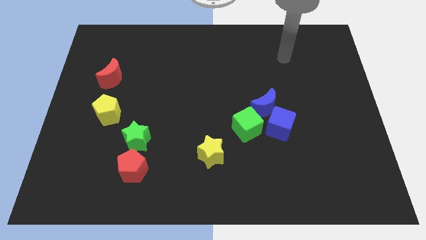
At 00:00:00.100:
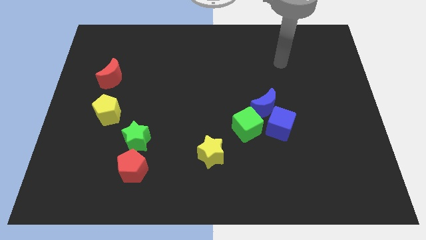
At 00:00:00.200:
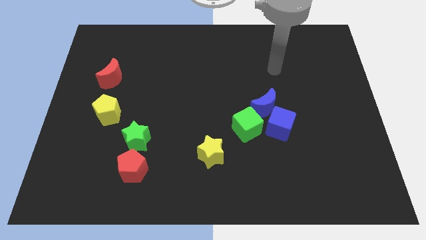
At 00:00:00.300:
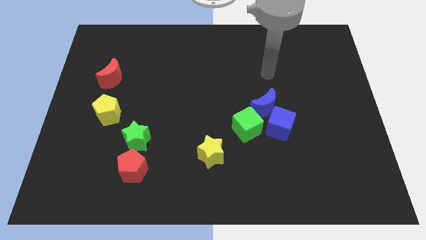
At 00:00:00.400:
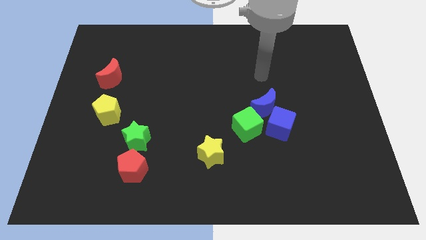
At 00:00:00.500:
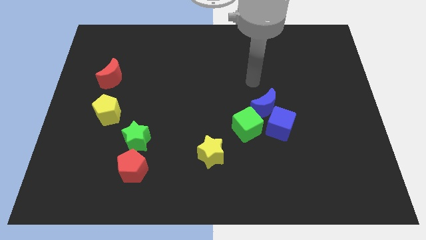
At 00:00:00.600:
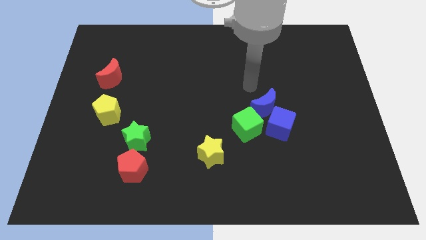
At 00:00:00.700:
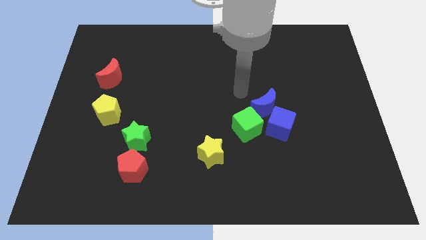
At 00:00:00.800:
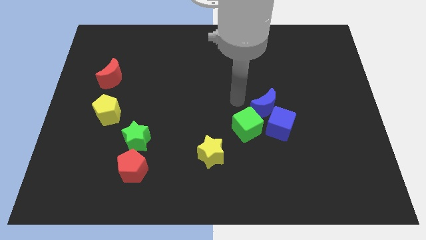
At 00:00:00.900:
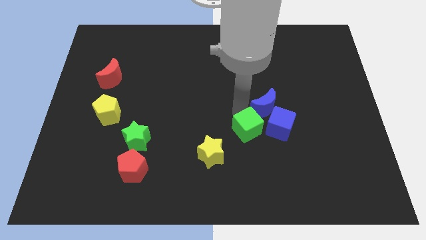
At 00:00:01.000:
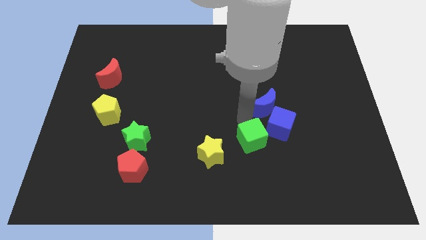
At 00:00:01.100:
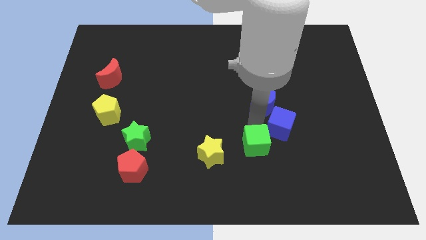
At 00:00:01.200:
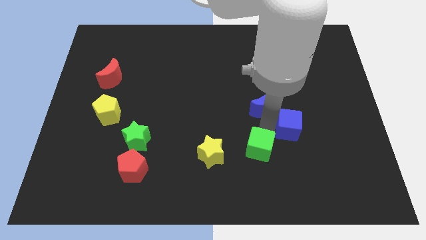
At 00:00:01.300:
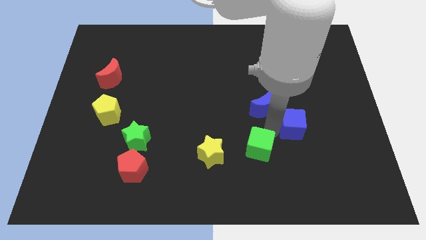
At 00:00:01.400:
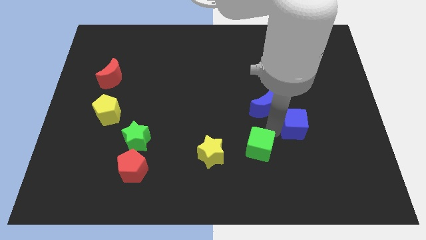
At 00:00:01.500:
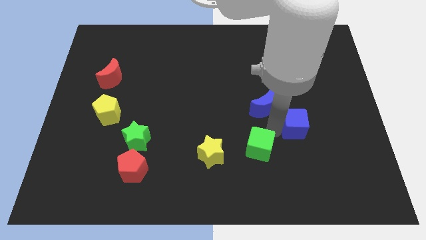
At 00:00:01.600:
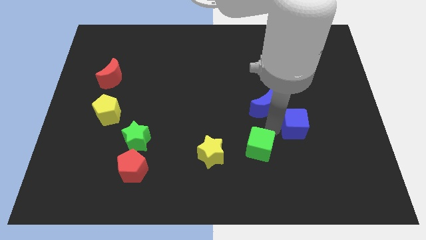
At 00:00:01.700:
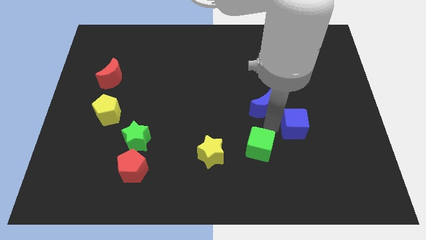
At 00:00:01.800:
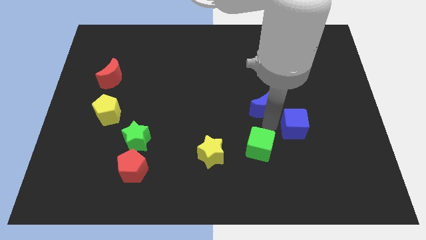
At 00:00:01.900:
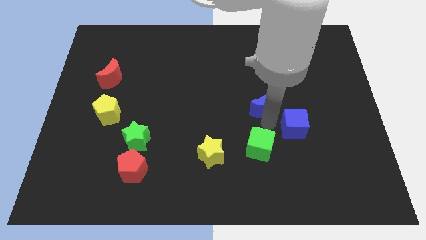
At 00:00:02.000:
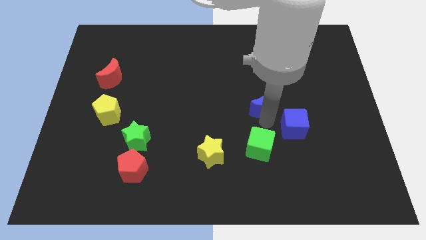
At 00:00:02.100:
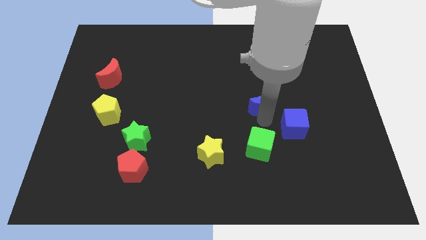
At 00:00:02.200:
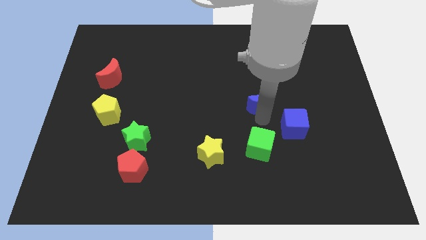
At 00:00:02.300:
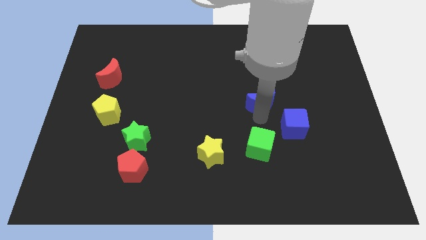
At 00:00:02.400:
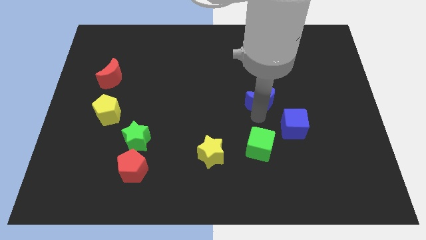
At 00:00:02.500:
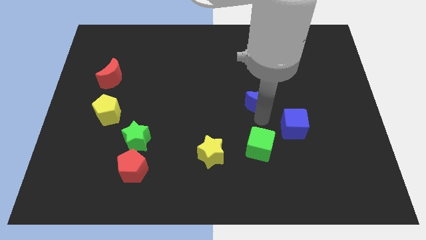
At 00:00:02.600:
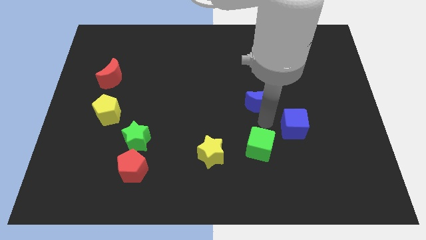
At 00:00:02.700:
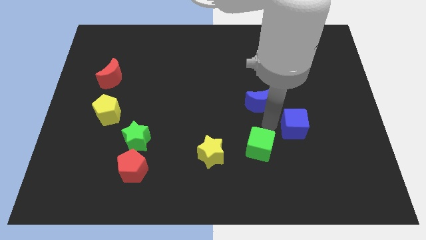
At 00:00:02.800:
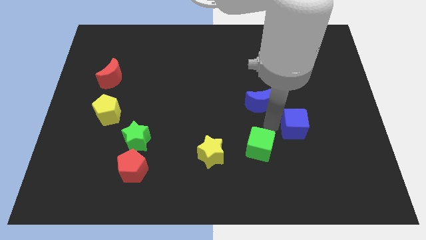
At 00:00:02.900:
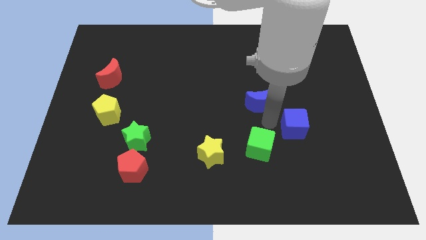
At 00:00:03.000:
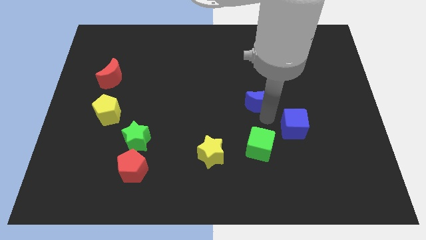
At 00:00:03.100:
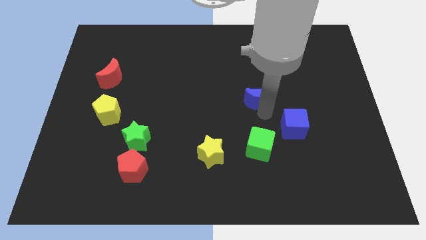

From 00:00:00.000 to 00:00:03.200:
separate the blue moon from the blue cube and green cube

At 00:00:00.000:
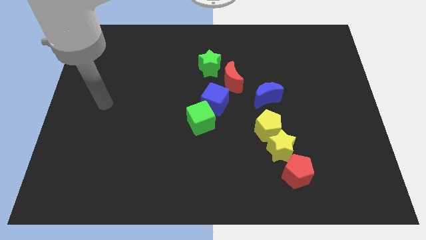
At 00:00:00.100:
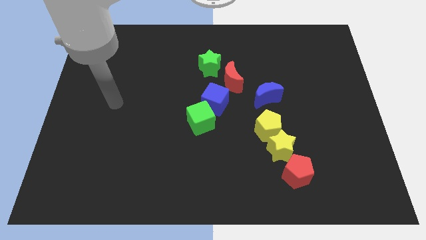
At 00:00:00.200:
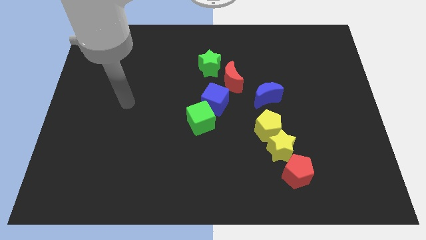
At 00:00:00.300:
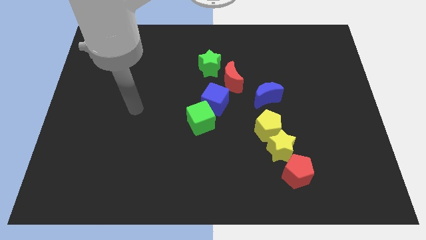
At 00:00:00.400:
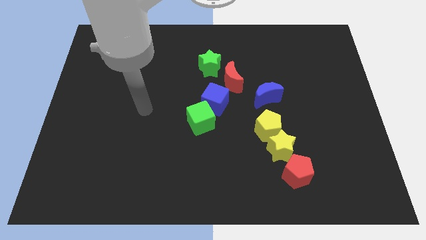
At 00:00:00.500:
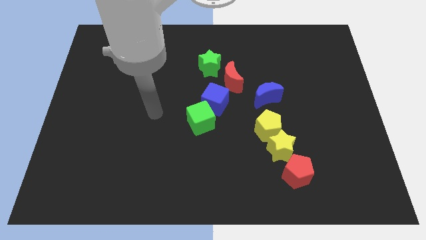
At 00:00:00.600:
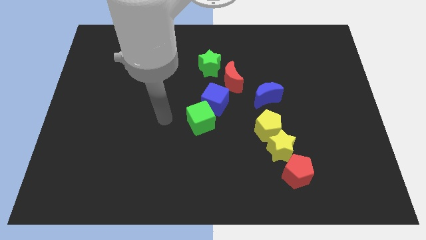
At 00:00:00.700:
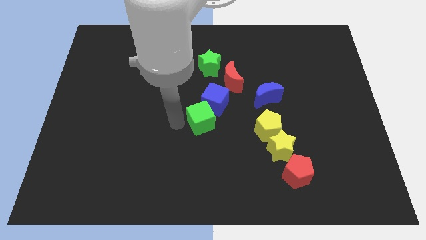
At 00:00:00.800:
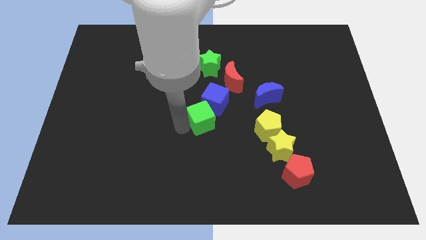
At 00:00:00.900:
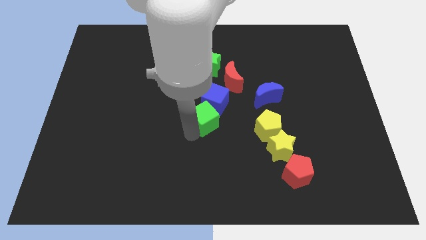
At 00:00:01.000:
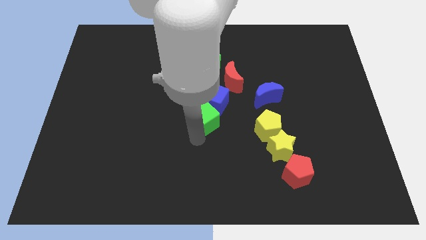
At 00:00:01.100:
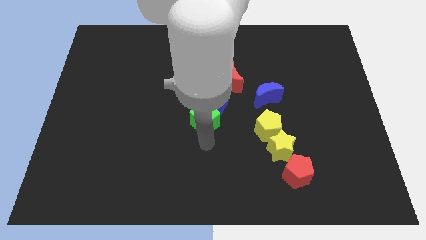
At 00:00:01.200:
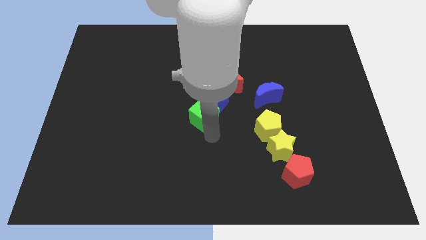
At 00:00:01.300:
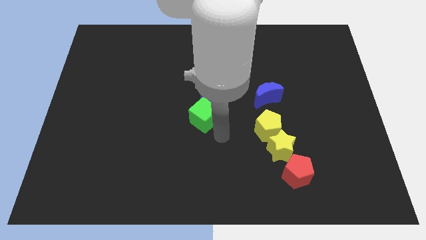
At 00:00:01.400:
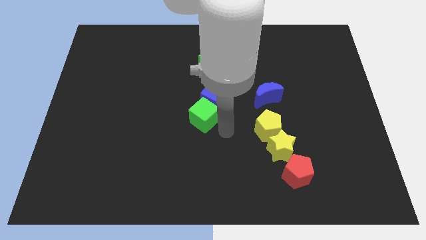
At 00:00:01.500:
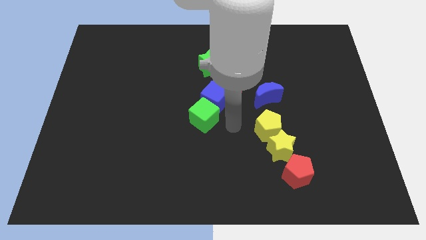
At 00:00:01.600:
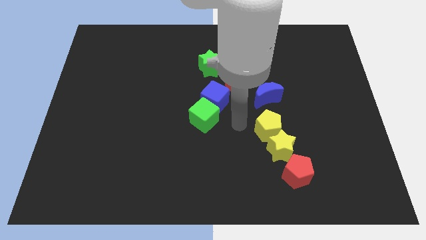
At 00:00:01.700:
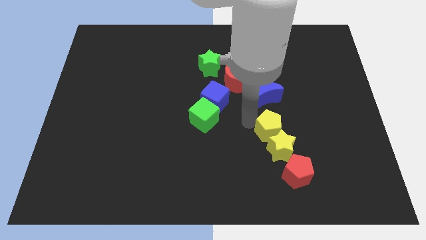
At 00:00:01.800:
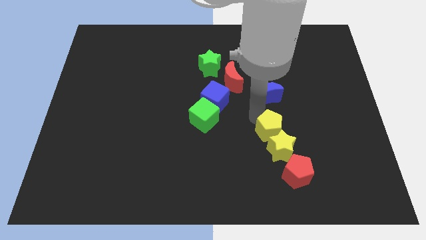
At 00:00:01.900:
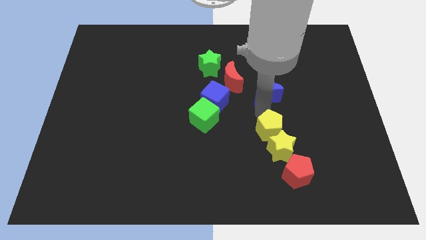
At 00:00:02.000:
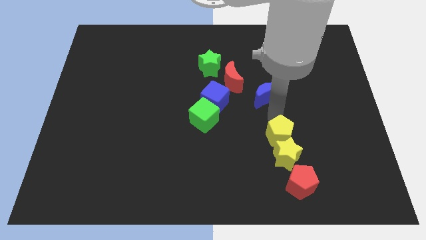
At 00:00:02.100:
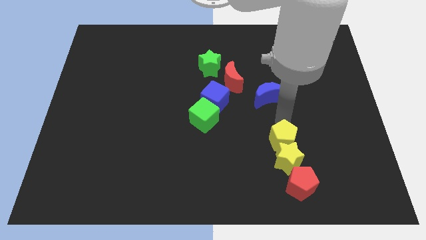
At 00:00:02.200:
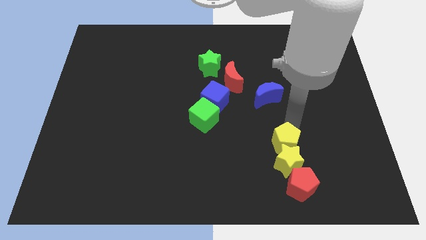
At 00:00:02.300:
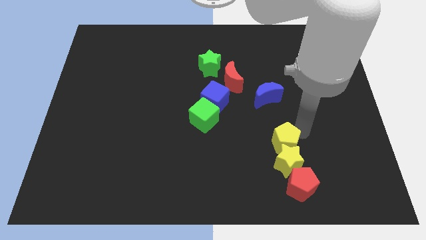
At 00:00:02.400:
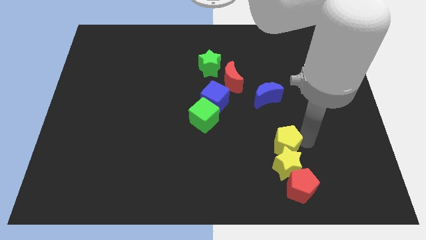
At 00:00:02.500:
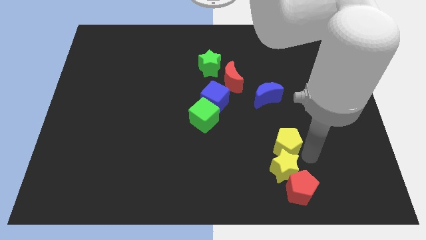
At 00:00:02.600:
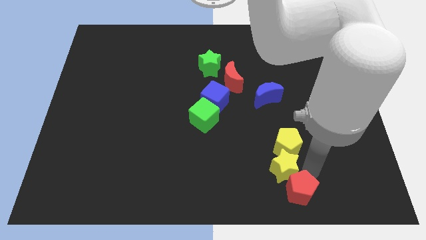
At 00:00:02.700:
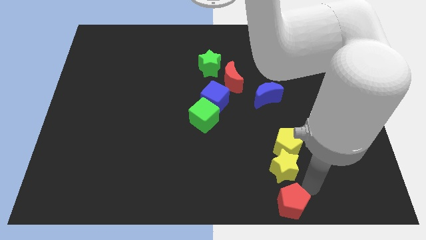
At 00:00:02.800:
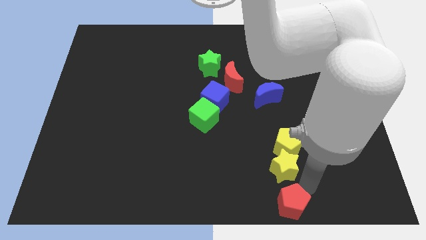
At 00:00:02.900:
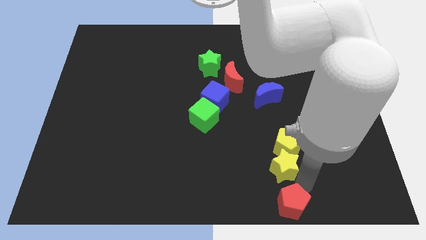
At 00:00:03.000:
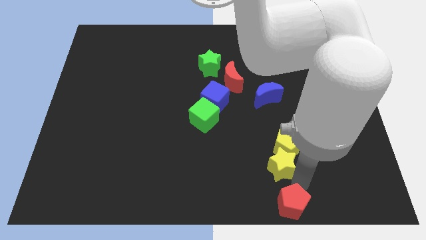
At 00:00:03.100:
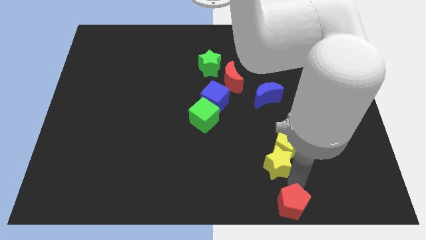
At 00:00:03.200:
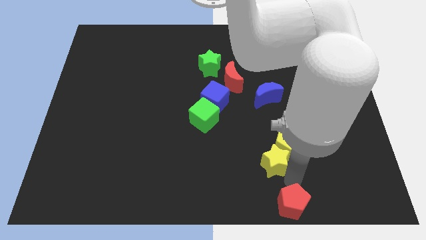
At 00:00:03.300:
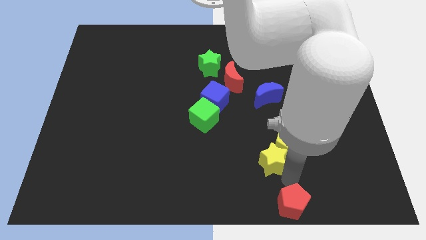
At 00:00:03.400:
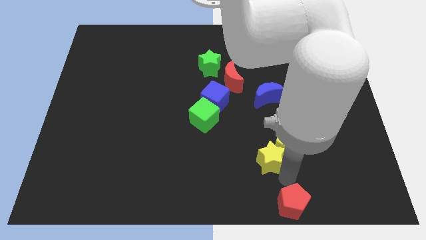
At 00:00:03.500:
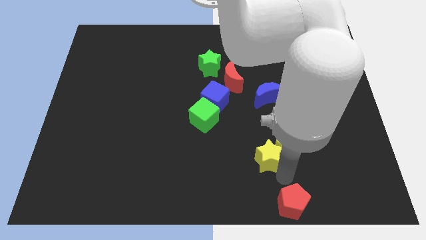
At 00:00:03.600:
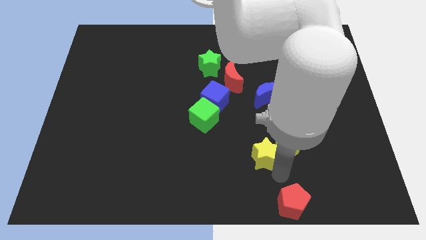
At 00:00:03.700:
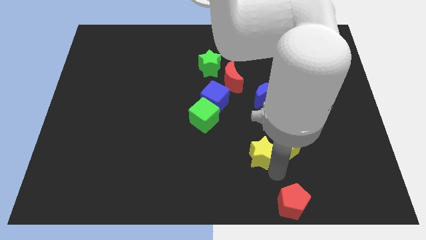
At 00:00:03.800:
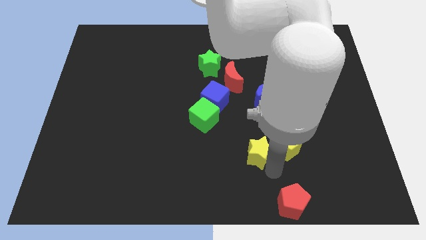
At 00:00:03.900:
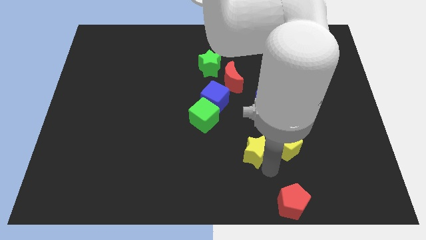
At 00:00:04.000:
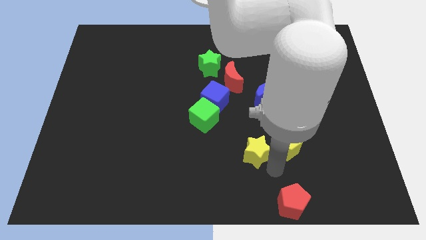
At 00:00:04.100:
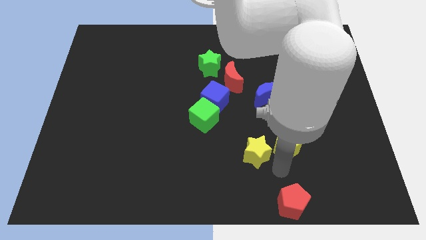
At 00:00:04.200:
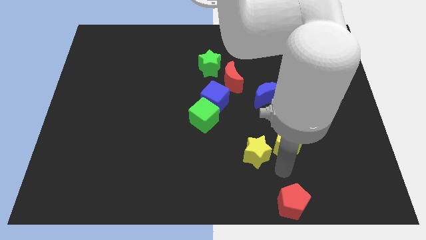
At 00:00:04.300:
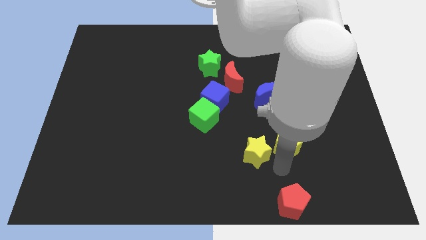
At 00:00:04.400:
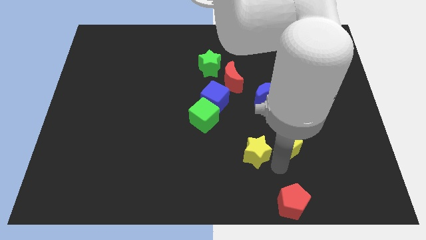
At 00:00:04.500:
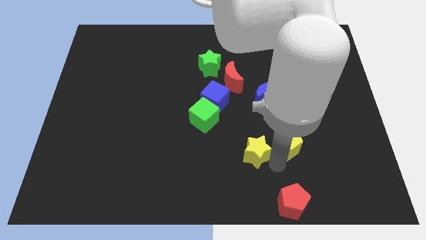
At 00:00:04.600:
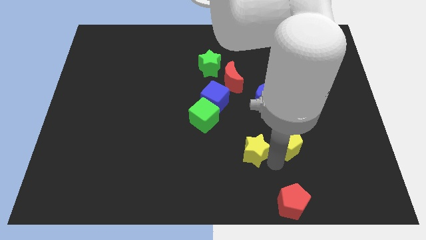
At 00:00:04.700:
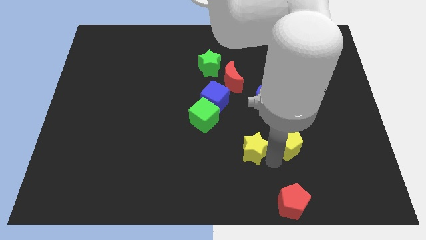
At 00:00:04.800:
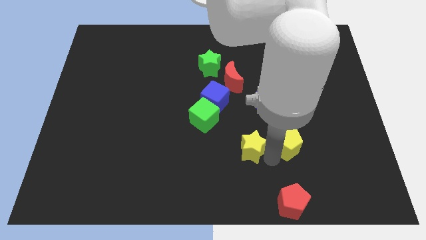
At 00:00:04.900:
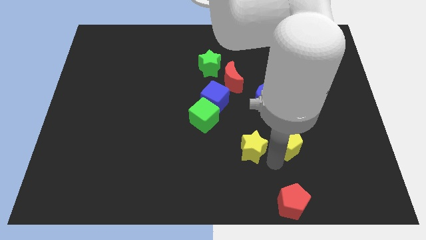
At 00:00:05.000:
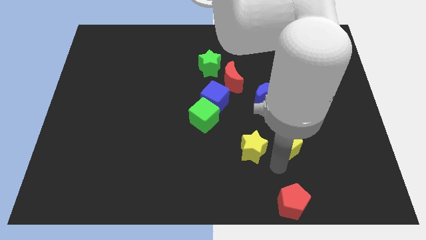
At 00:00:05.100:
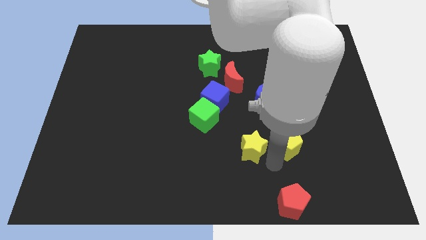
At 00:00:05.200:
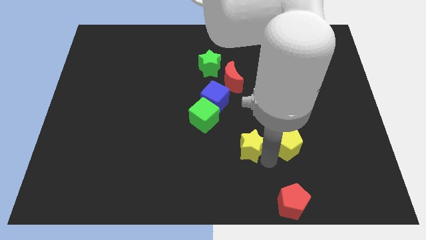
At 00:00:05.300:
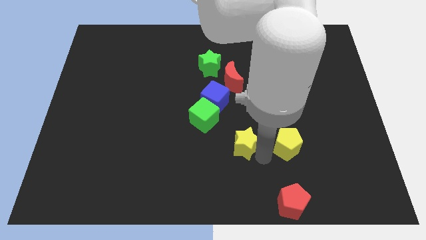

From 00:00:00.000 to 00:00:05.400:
pull the yellow star apart from the yellow pentagon and red pentagon

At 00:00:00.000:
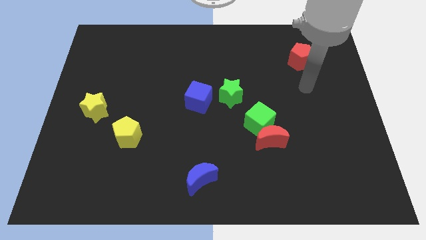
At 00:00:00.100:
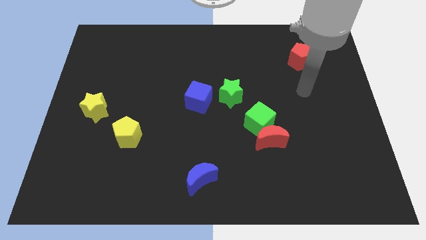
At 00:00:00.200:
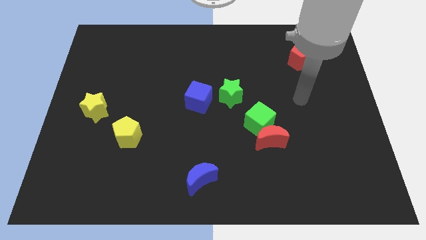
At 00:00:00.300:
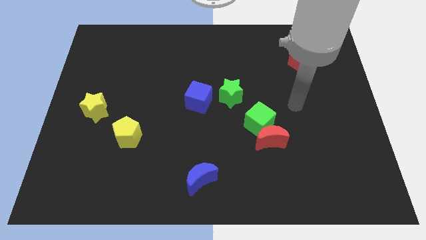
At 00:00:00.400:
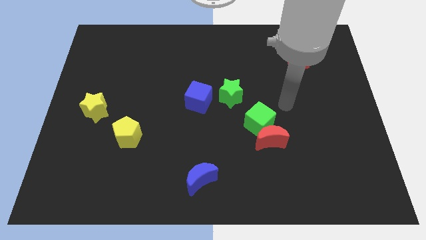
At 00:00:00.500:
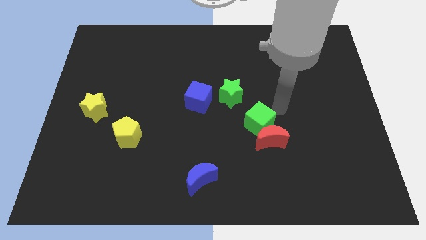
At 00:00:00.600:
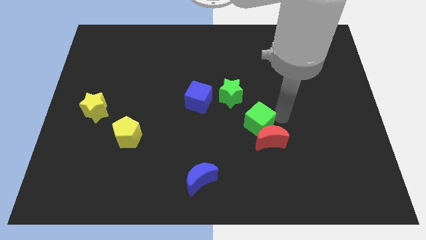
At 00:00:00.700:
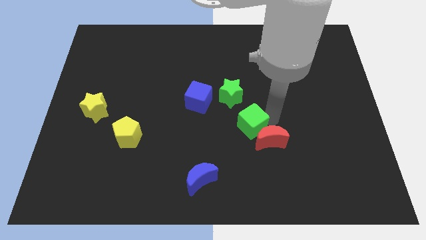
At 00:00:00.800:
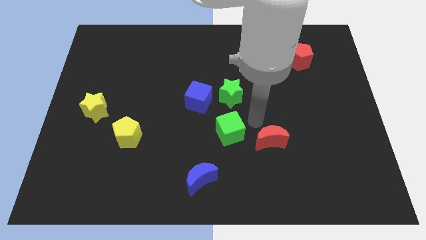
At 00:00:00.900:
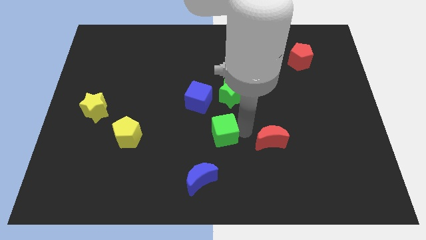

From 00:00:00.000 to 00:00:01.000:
pull the red moon apart from the green cube
